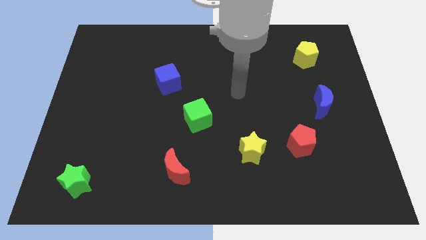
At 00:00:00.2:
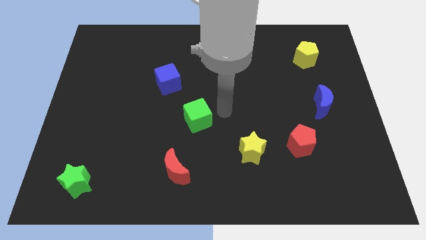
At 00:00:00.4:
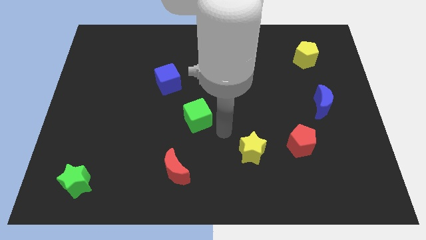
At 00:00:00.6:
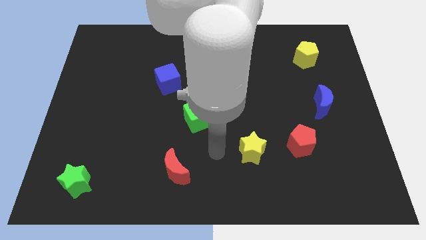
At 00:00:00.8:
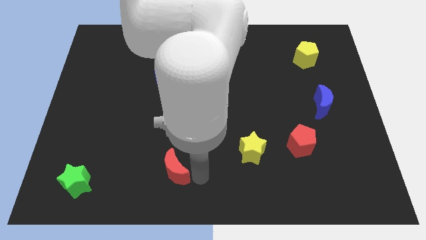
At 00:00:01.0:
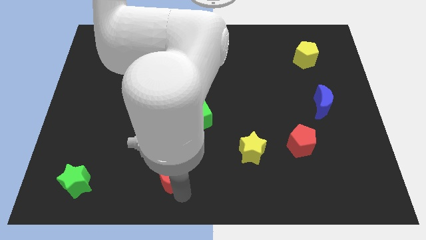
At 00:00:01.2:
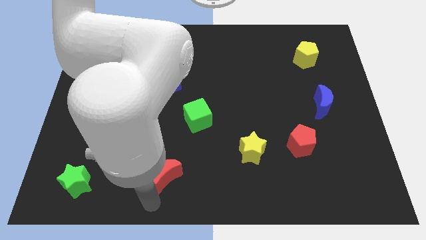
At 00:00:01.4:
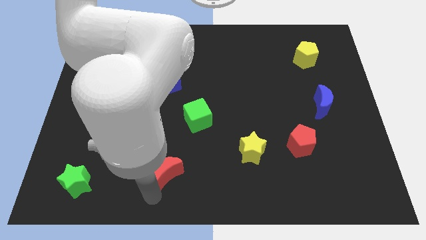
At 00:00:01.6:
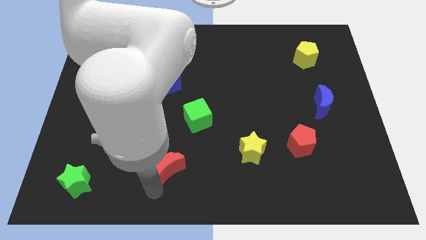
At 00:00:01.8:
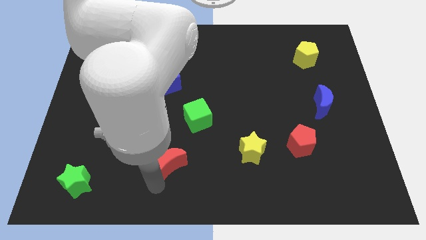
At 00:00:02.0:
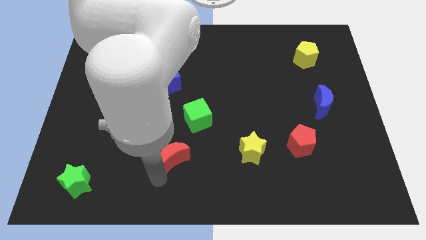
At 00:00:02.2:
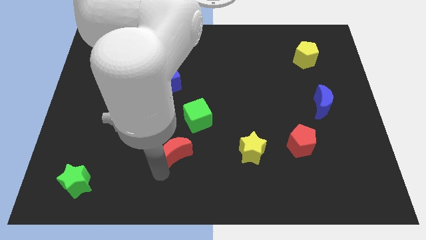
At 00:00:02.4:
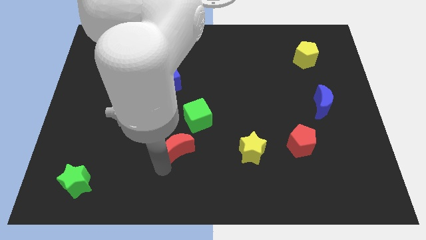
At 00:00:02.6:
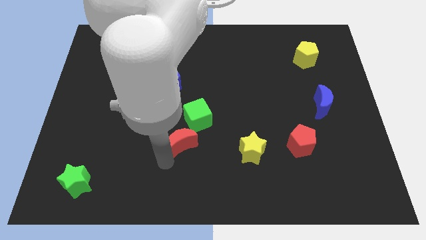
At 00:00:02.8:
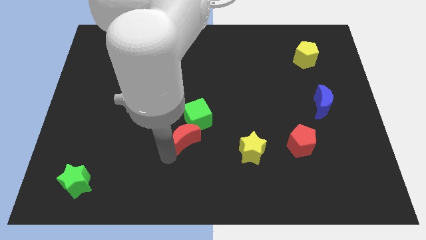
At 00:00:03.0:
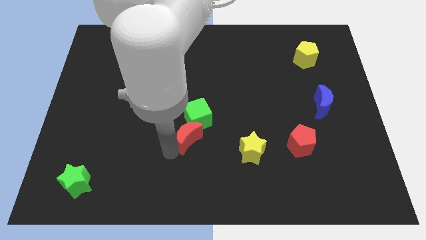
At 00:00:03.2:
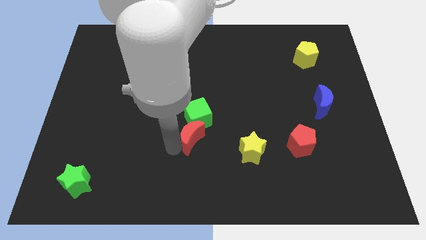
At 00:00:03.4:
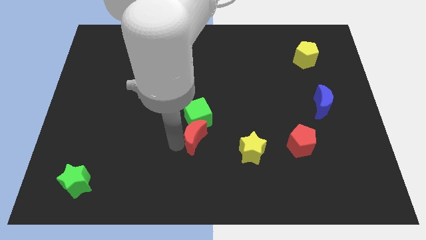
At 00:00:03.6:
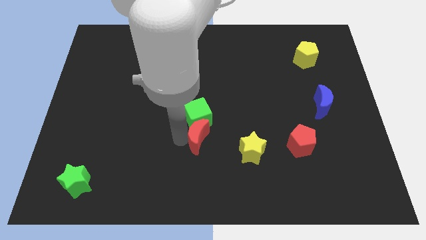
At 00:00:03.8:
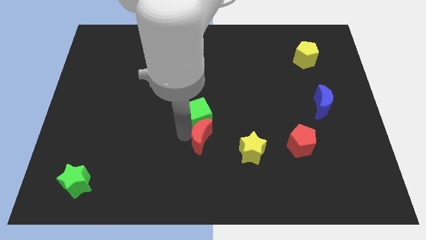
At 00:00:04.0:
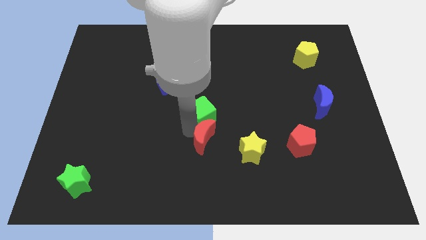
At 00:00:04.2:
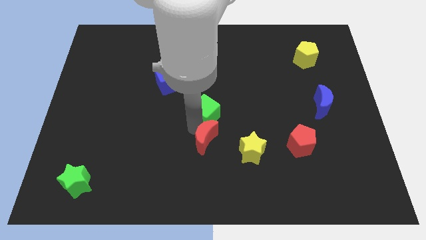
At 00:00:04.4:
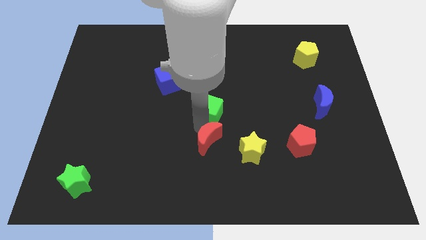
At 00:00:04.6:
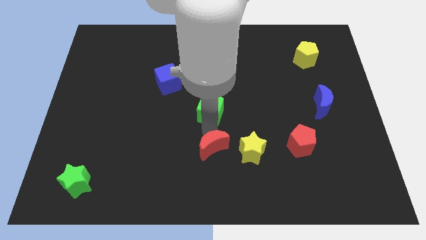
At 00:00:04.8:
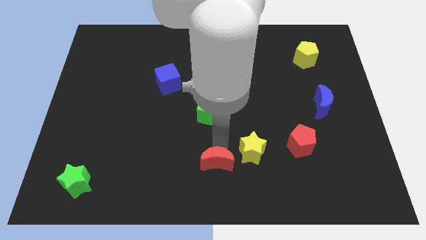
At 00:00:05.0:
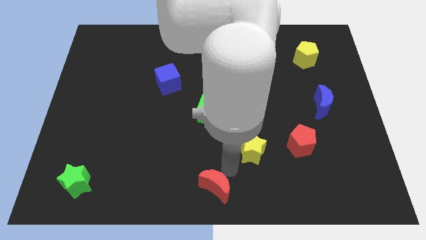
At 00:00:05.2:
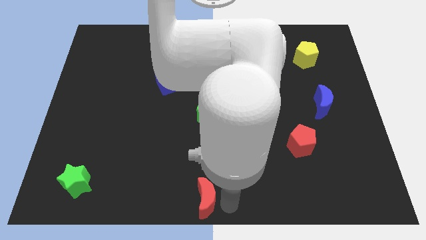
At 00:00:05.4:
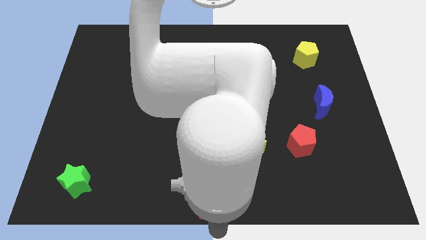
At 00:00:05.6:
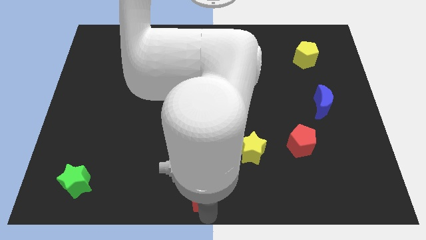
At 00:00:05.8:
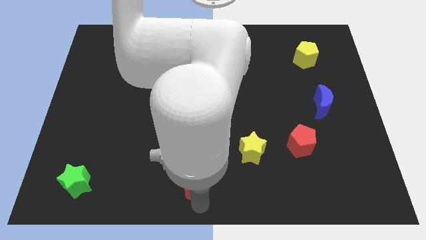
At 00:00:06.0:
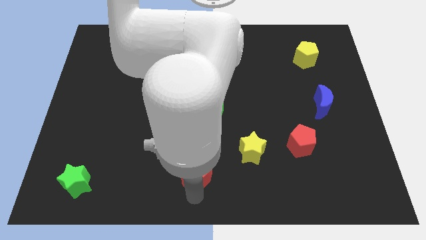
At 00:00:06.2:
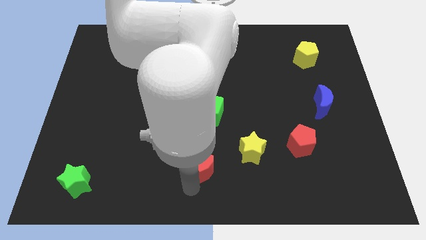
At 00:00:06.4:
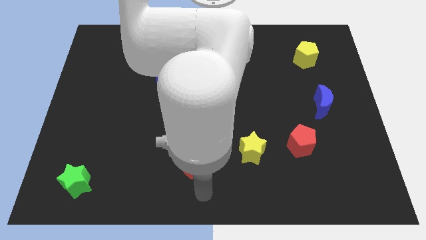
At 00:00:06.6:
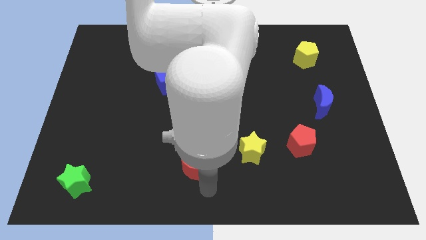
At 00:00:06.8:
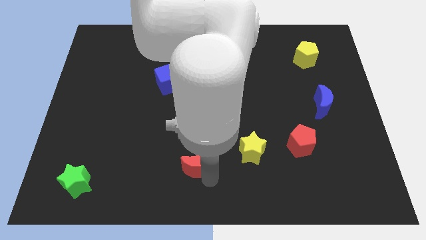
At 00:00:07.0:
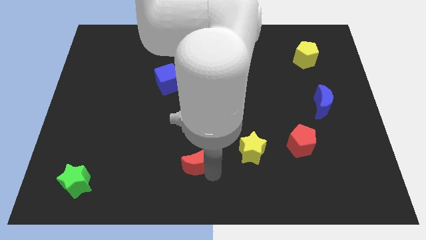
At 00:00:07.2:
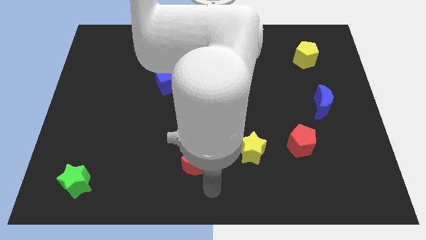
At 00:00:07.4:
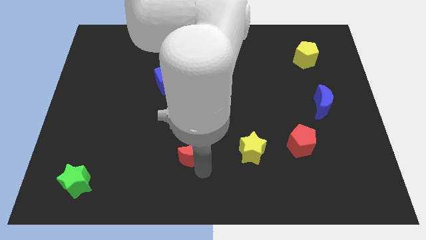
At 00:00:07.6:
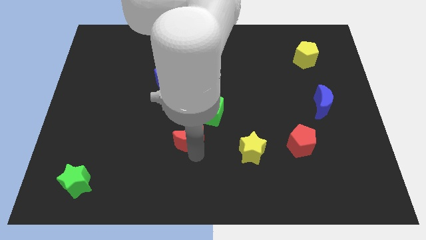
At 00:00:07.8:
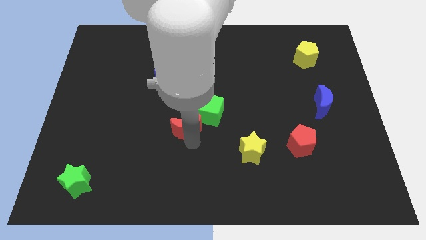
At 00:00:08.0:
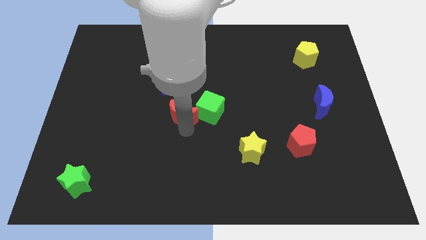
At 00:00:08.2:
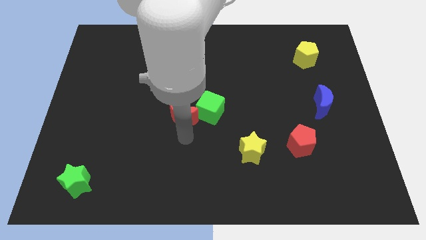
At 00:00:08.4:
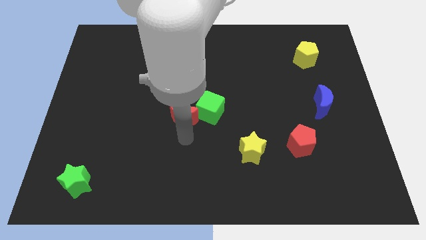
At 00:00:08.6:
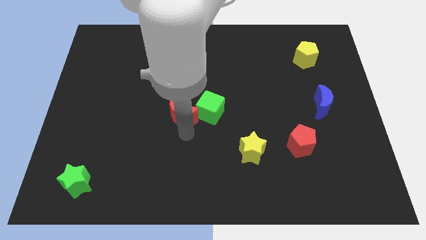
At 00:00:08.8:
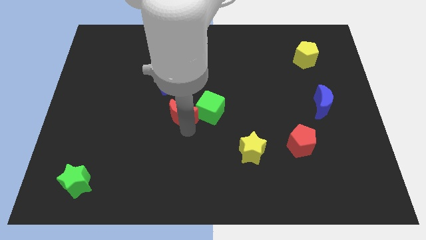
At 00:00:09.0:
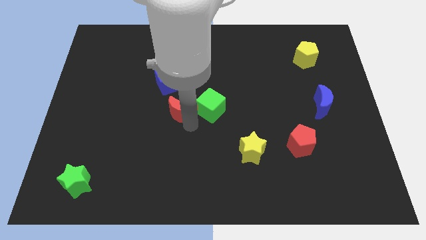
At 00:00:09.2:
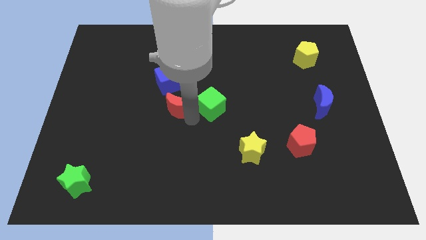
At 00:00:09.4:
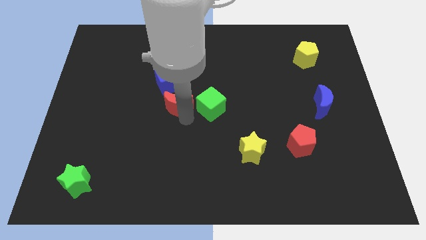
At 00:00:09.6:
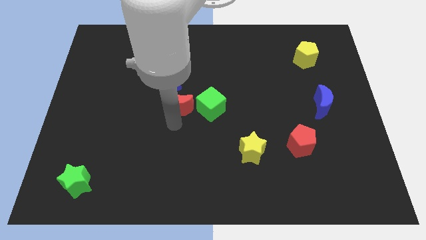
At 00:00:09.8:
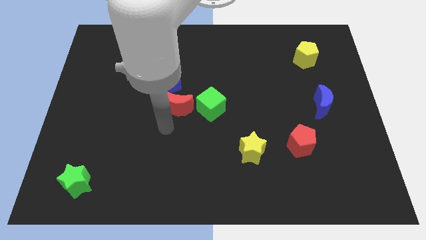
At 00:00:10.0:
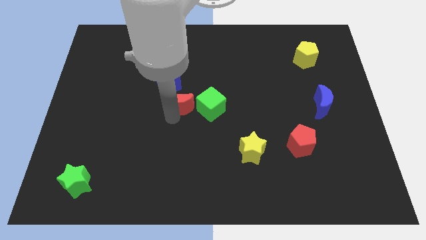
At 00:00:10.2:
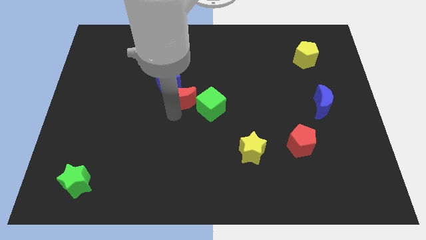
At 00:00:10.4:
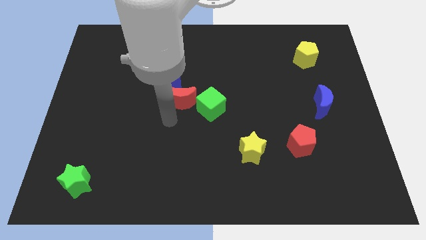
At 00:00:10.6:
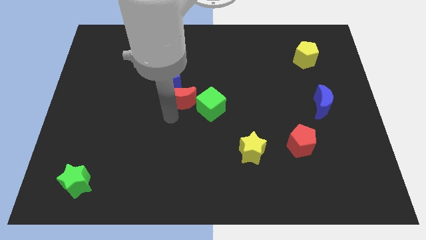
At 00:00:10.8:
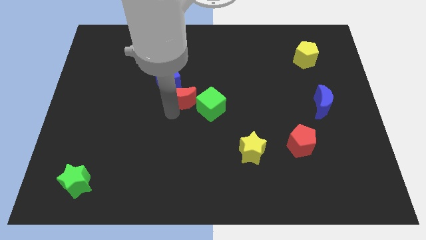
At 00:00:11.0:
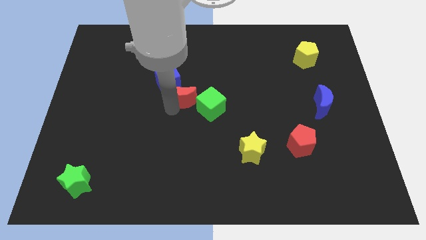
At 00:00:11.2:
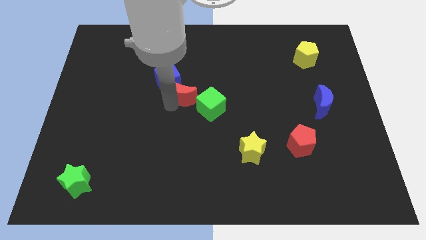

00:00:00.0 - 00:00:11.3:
move the red moon up

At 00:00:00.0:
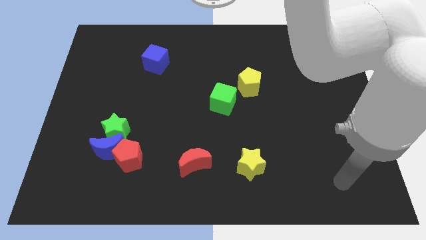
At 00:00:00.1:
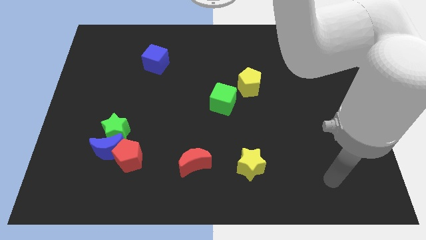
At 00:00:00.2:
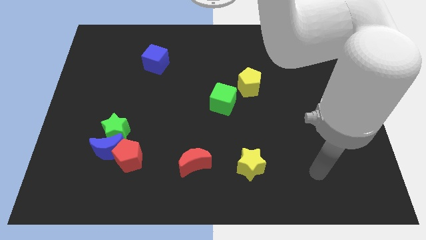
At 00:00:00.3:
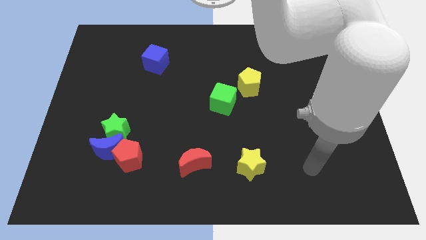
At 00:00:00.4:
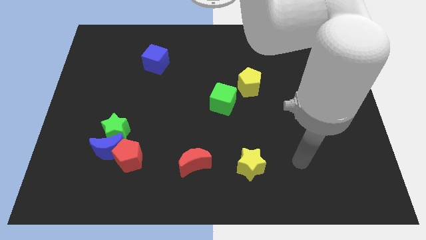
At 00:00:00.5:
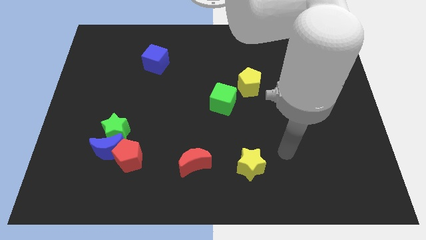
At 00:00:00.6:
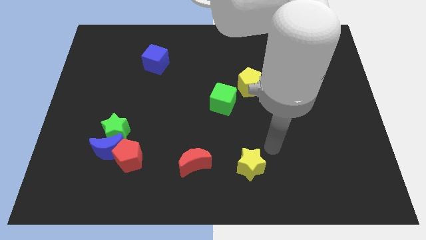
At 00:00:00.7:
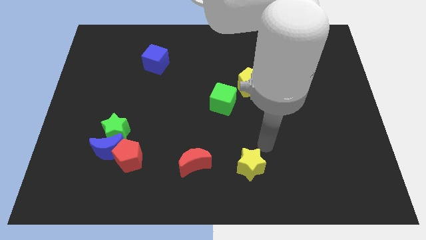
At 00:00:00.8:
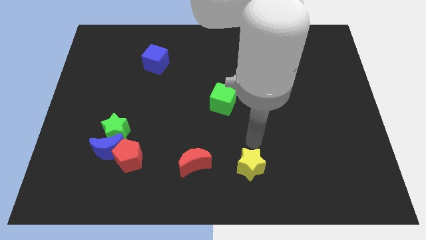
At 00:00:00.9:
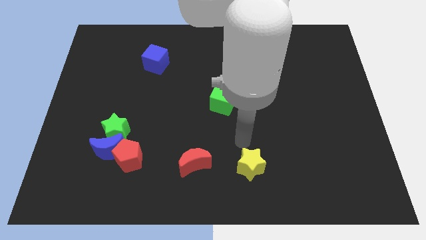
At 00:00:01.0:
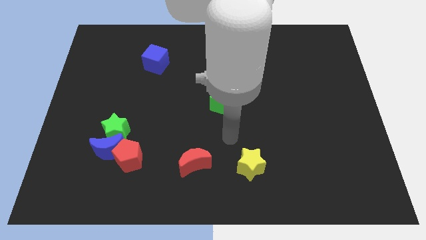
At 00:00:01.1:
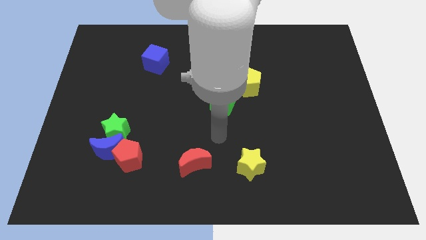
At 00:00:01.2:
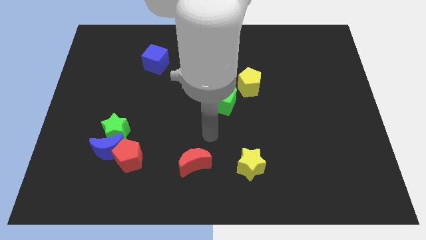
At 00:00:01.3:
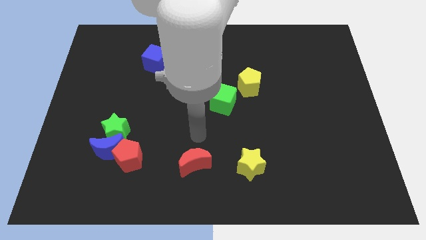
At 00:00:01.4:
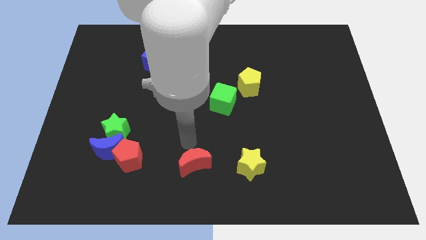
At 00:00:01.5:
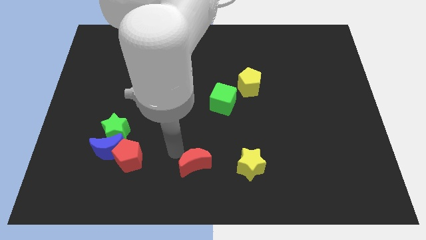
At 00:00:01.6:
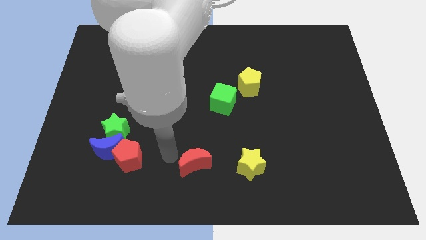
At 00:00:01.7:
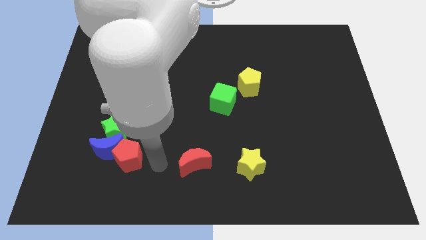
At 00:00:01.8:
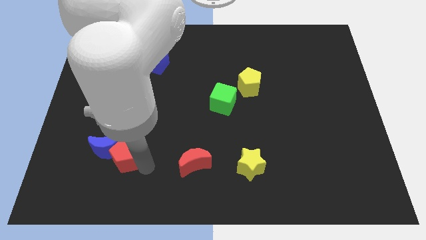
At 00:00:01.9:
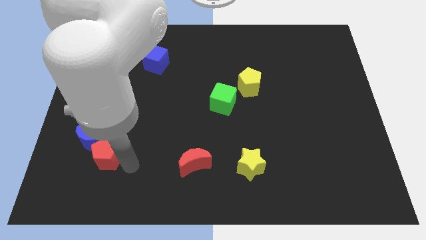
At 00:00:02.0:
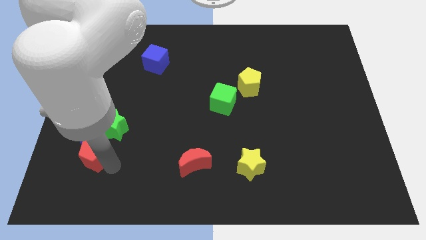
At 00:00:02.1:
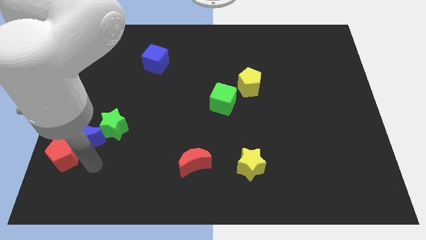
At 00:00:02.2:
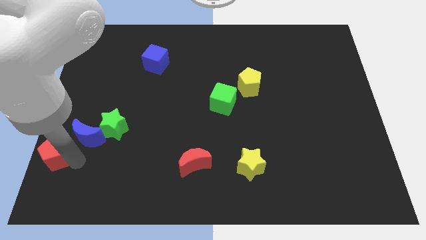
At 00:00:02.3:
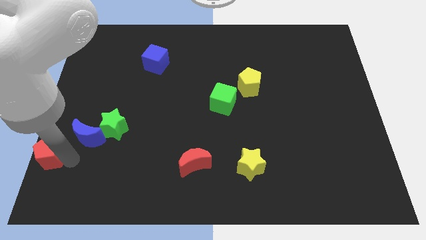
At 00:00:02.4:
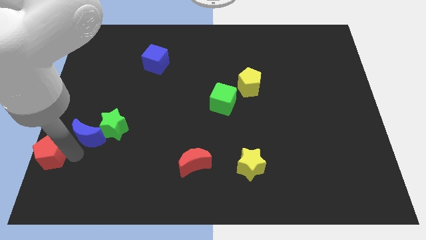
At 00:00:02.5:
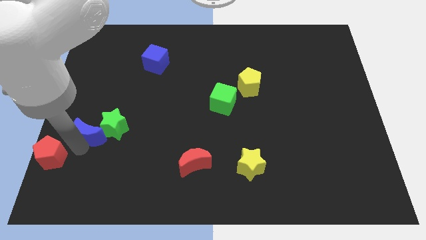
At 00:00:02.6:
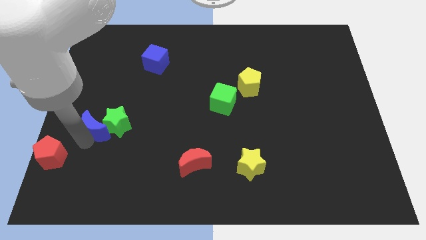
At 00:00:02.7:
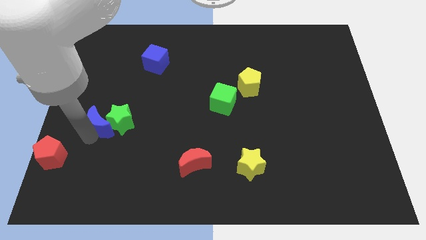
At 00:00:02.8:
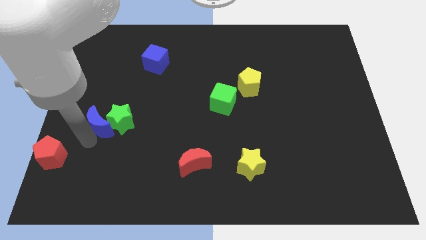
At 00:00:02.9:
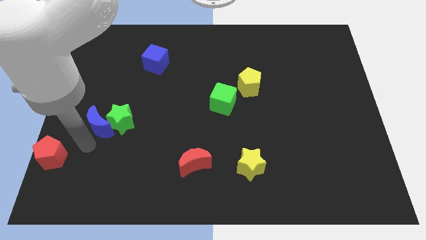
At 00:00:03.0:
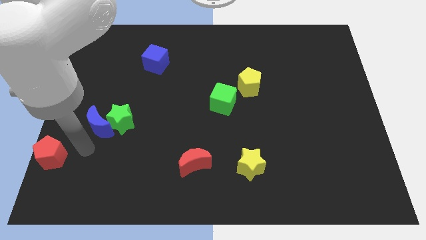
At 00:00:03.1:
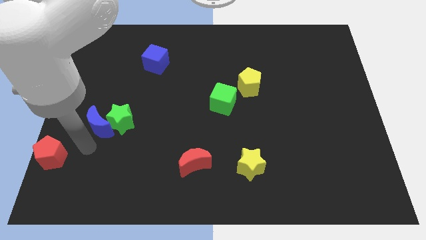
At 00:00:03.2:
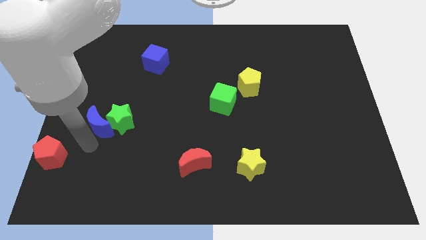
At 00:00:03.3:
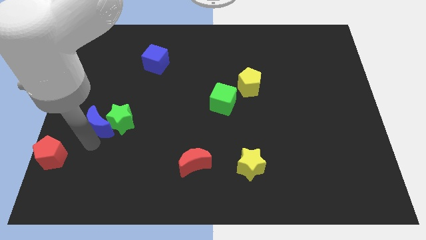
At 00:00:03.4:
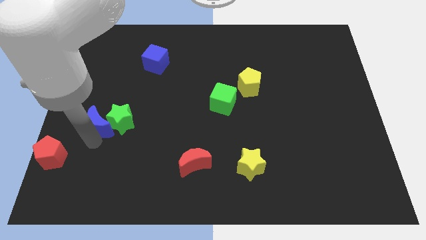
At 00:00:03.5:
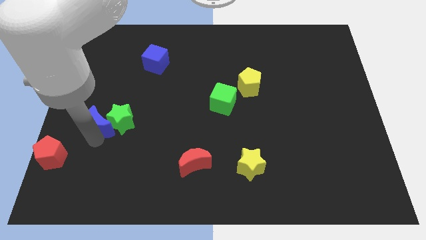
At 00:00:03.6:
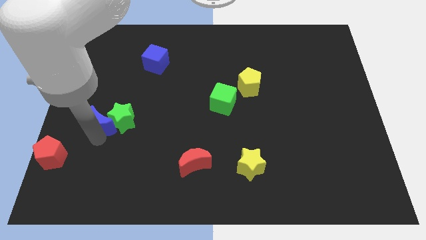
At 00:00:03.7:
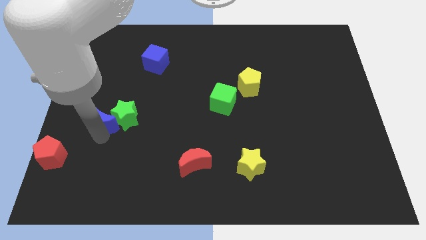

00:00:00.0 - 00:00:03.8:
push the blue moon a bit upwards
